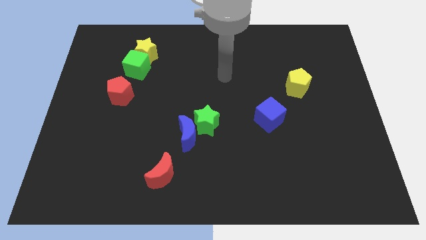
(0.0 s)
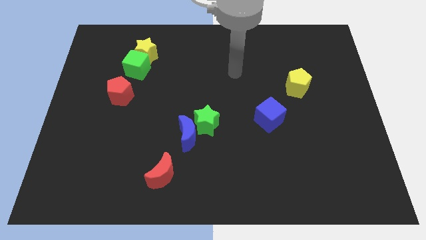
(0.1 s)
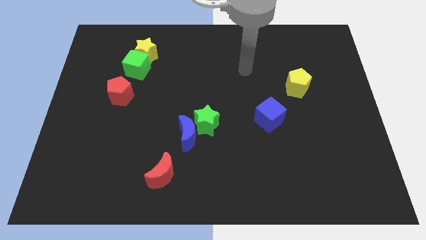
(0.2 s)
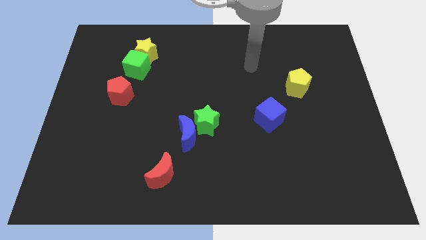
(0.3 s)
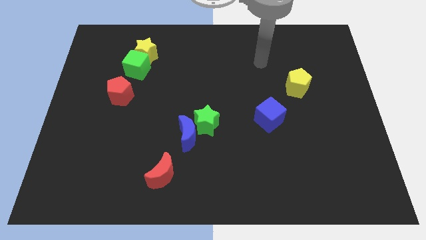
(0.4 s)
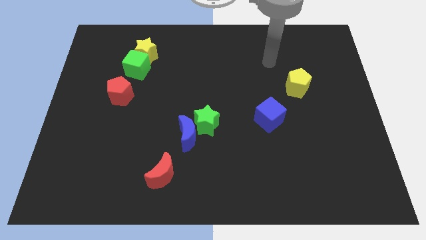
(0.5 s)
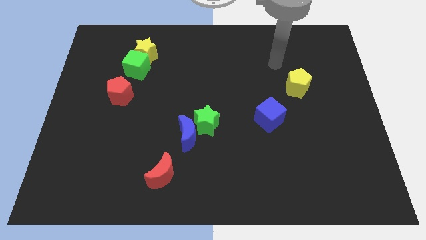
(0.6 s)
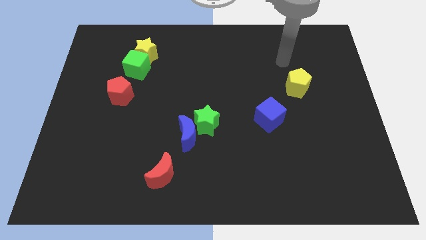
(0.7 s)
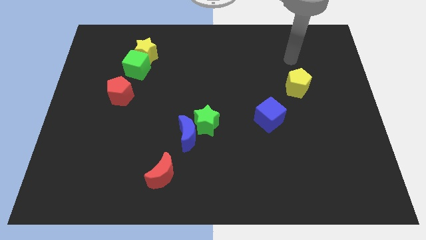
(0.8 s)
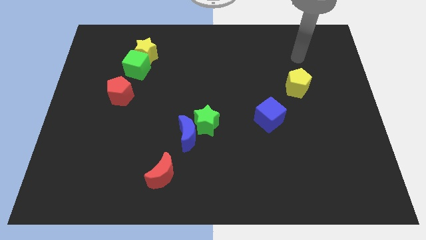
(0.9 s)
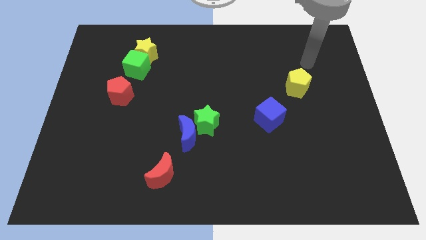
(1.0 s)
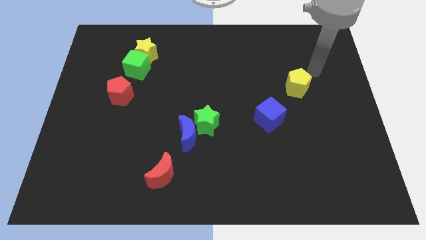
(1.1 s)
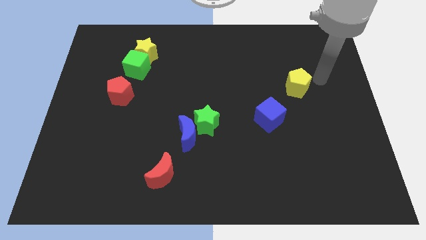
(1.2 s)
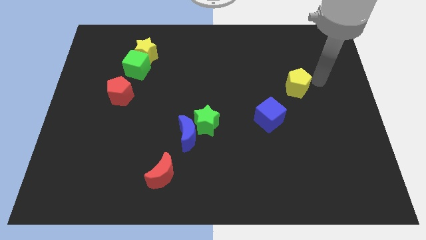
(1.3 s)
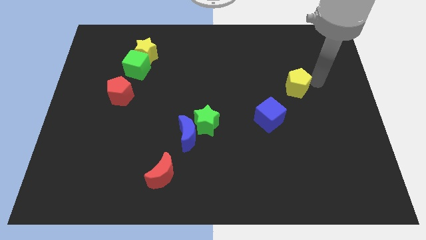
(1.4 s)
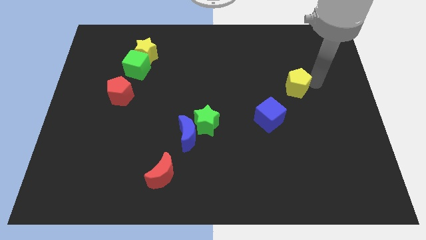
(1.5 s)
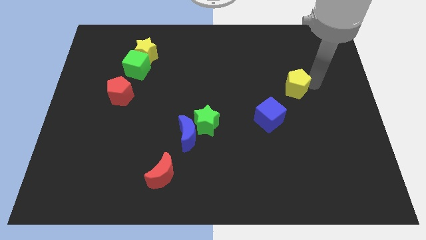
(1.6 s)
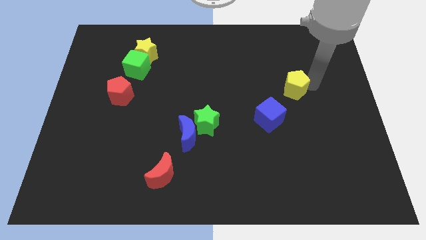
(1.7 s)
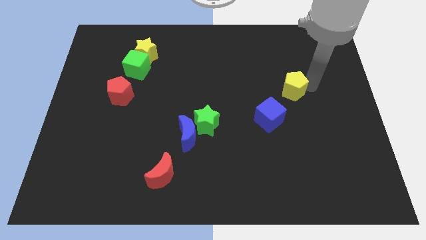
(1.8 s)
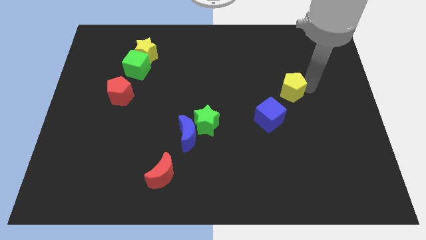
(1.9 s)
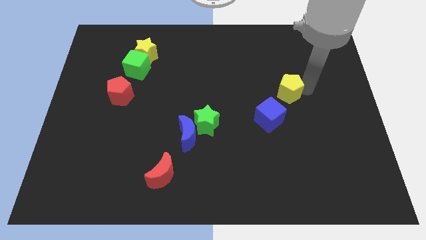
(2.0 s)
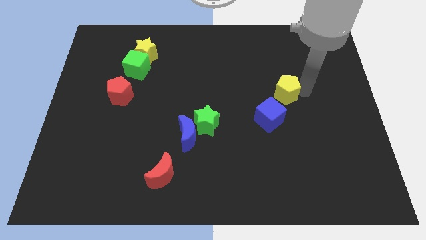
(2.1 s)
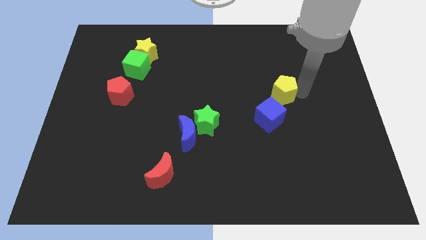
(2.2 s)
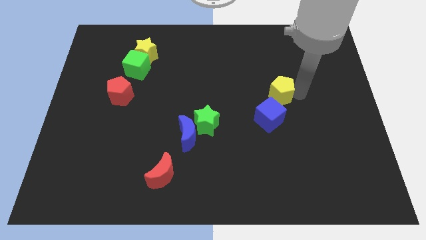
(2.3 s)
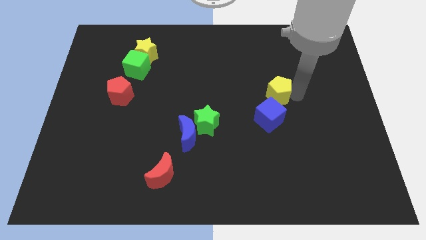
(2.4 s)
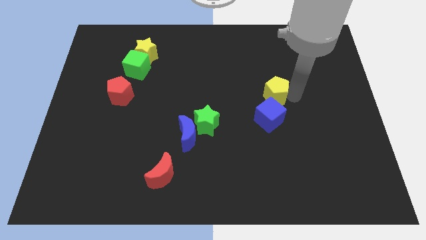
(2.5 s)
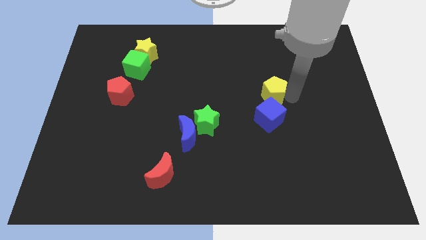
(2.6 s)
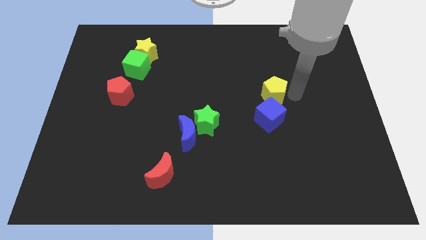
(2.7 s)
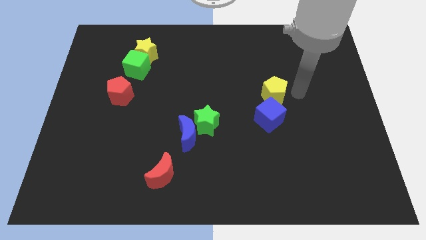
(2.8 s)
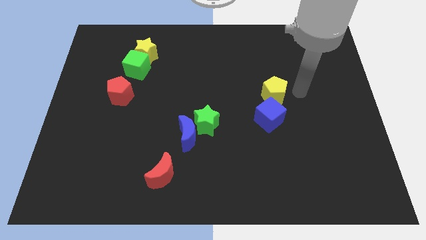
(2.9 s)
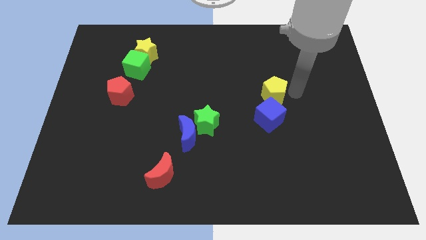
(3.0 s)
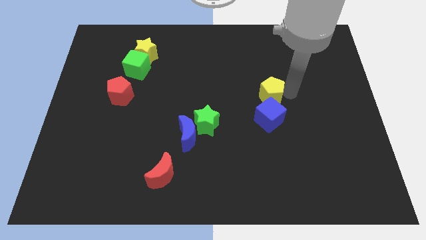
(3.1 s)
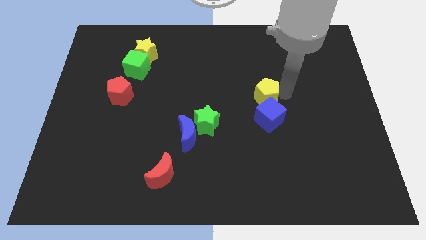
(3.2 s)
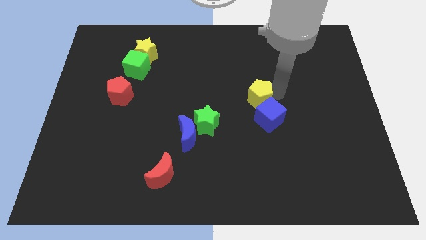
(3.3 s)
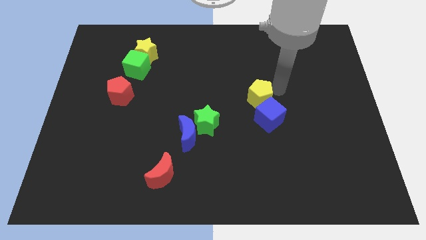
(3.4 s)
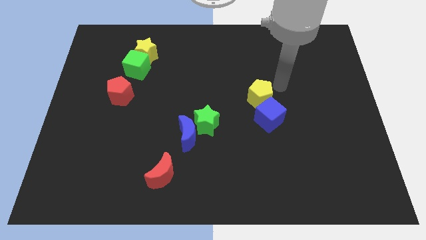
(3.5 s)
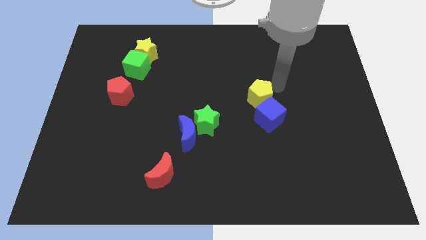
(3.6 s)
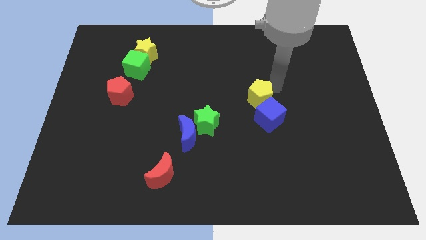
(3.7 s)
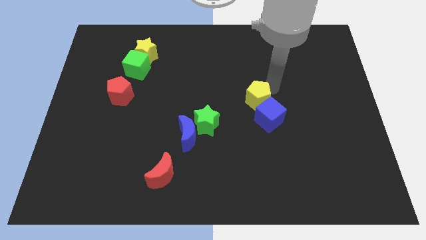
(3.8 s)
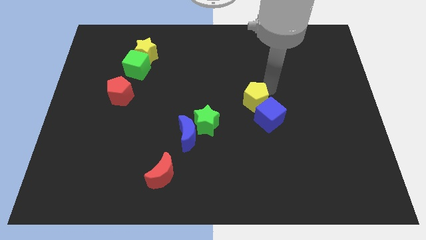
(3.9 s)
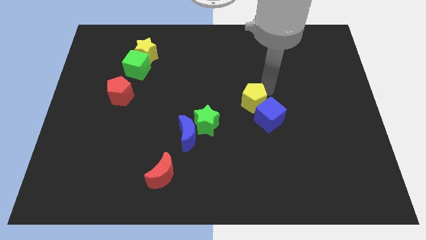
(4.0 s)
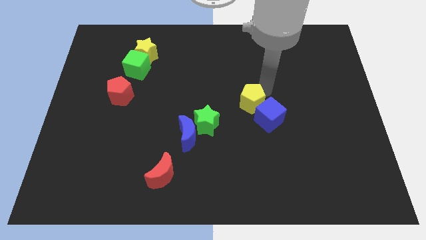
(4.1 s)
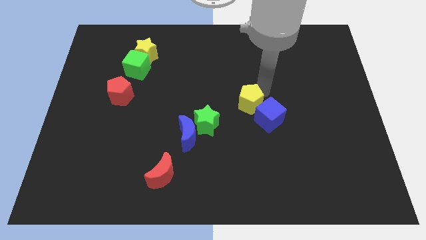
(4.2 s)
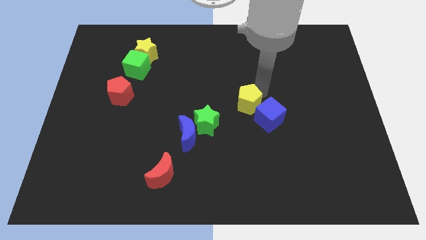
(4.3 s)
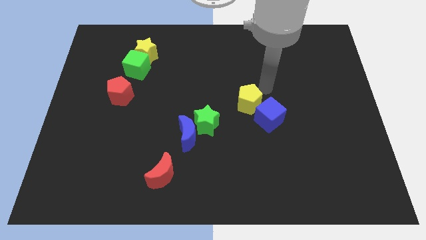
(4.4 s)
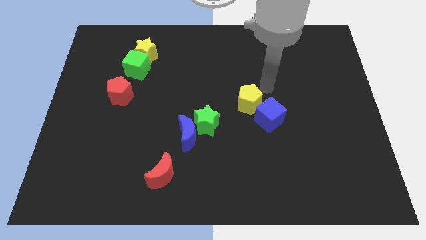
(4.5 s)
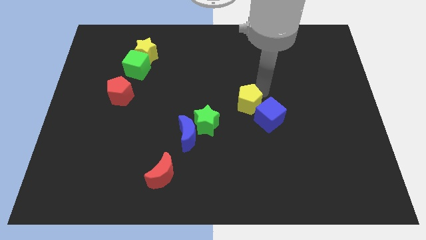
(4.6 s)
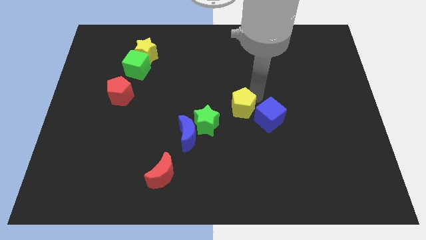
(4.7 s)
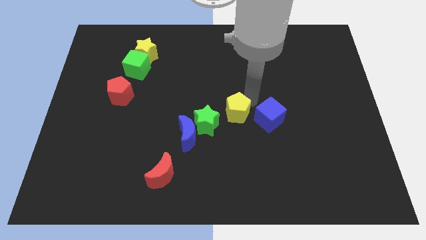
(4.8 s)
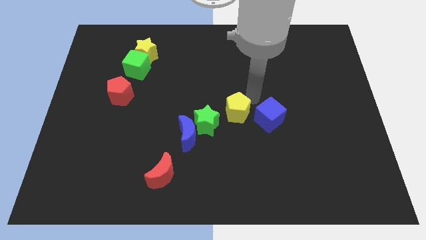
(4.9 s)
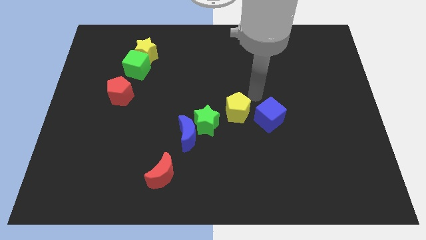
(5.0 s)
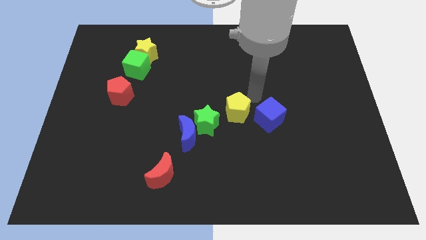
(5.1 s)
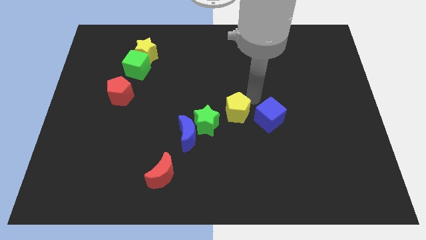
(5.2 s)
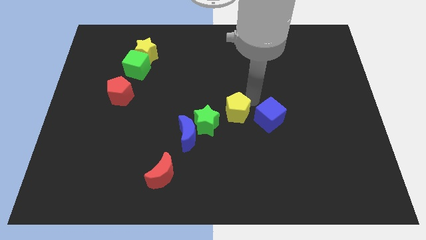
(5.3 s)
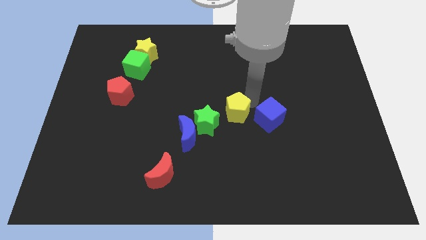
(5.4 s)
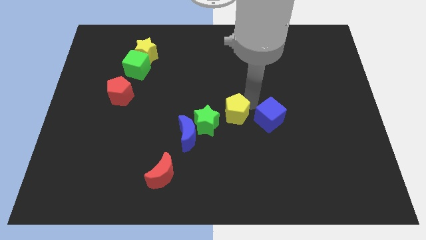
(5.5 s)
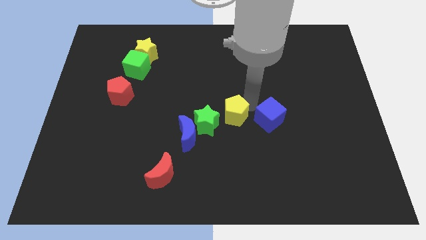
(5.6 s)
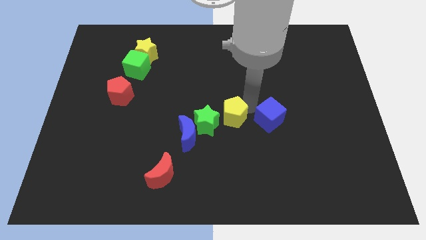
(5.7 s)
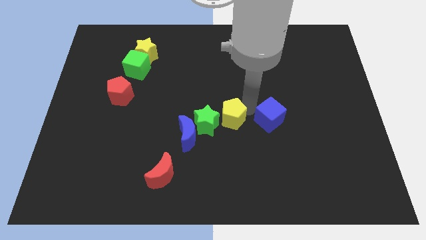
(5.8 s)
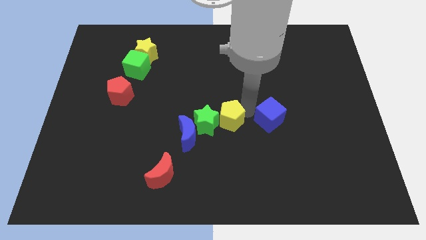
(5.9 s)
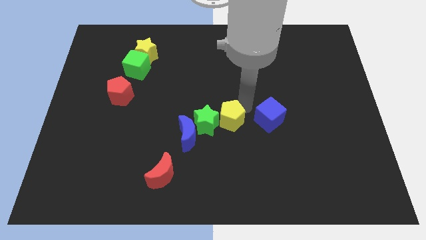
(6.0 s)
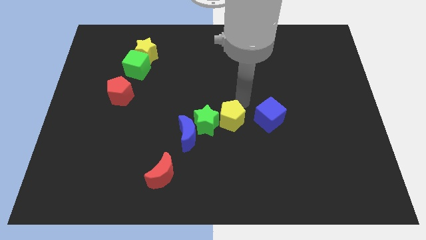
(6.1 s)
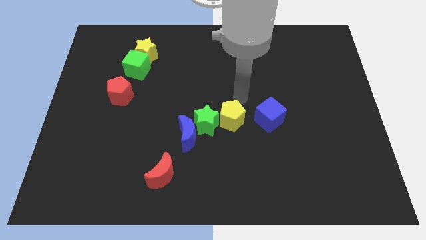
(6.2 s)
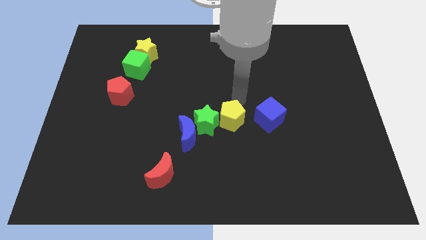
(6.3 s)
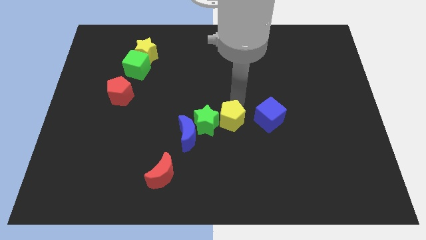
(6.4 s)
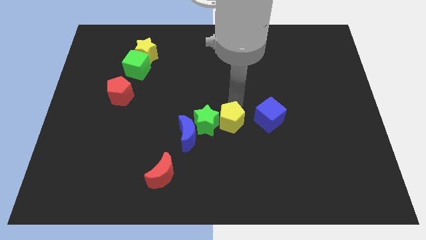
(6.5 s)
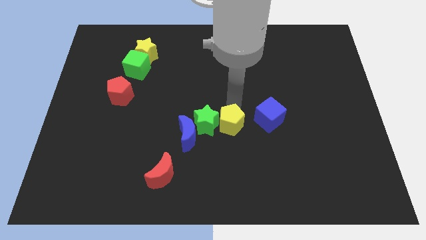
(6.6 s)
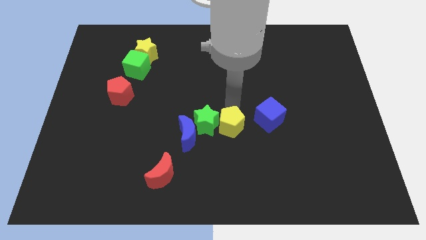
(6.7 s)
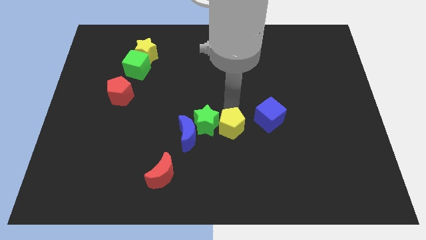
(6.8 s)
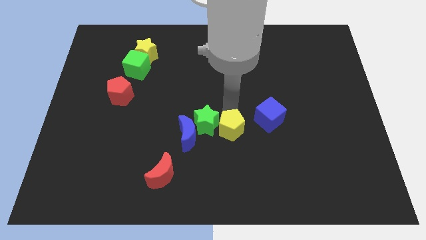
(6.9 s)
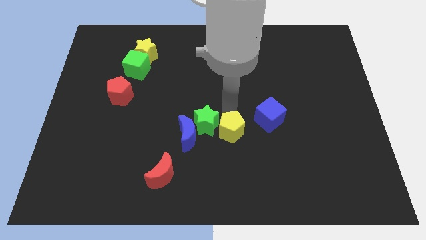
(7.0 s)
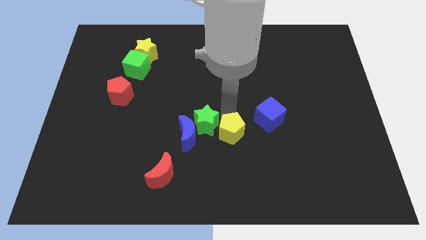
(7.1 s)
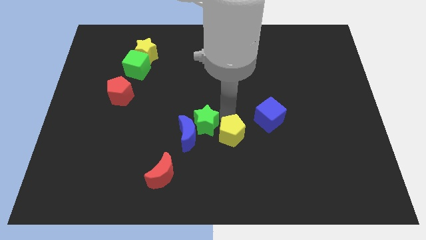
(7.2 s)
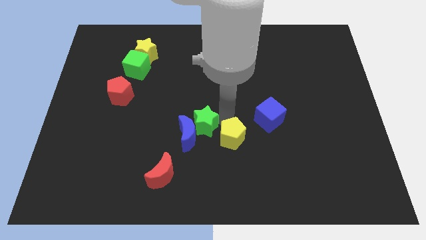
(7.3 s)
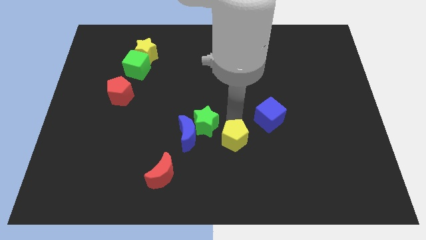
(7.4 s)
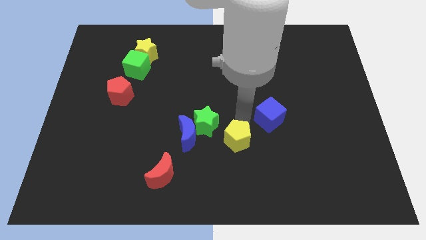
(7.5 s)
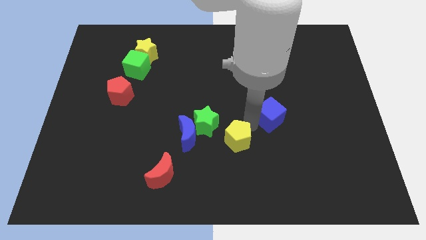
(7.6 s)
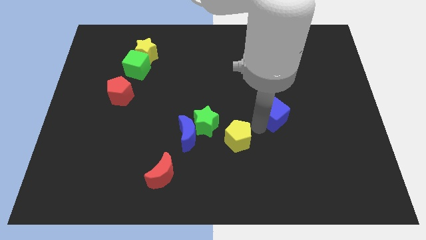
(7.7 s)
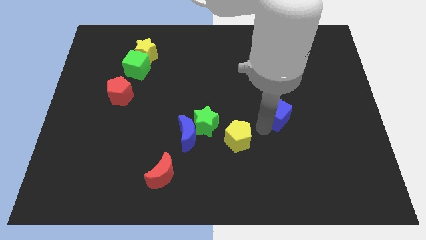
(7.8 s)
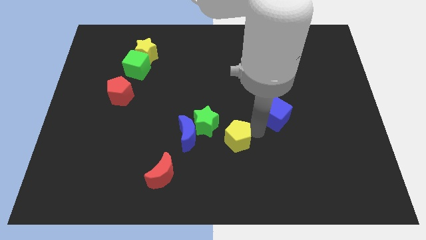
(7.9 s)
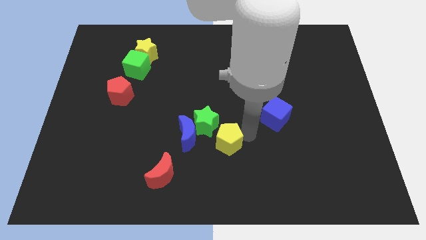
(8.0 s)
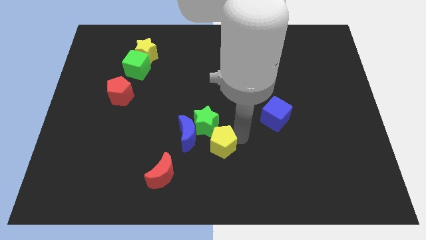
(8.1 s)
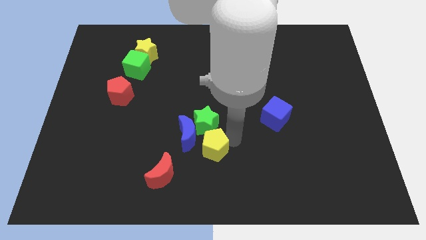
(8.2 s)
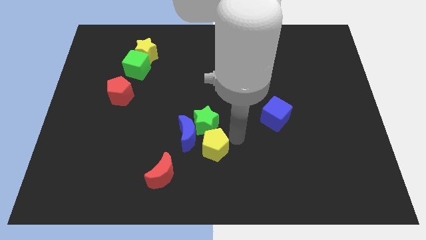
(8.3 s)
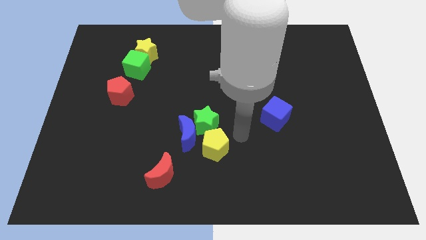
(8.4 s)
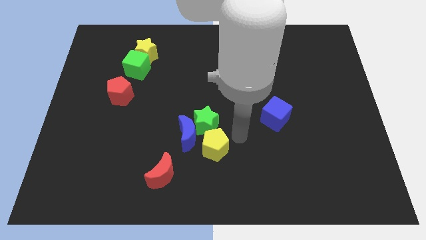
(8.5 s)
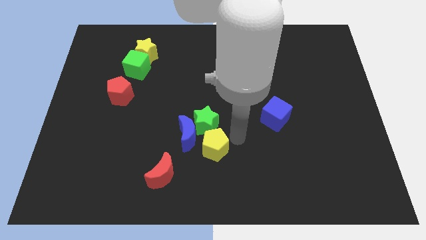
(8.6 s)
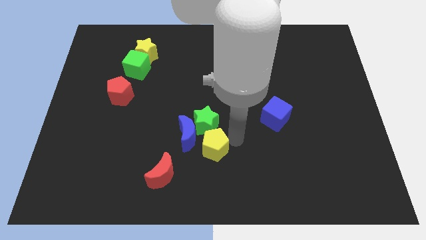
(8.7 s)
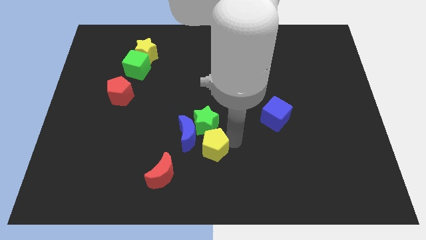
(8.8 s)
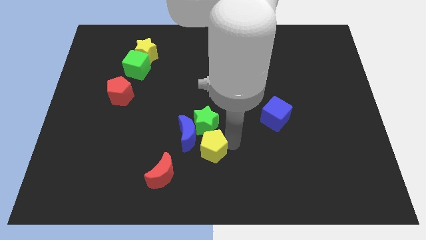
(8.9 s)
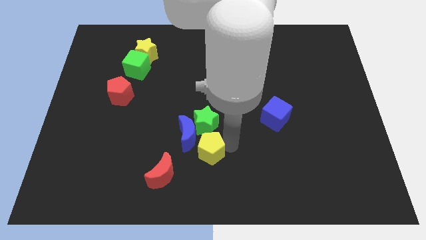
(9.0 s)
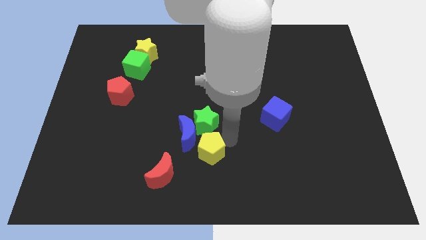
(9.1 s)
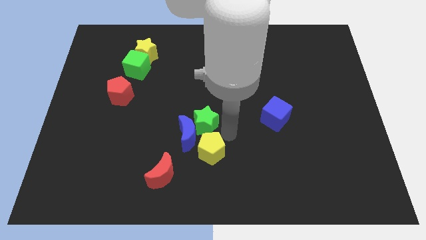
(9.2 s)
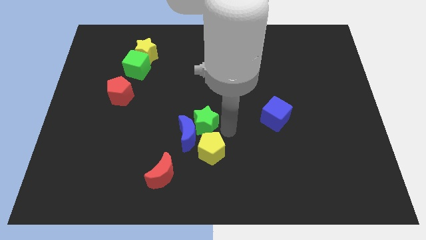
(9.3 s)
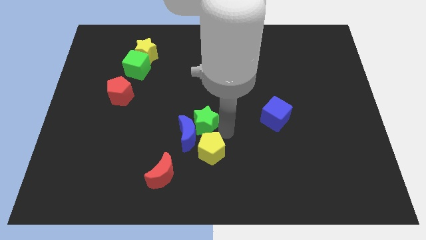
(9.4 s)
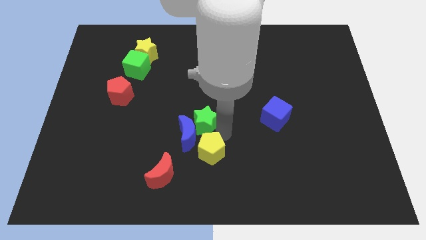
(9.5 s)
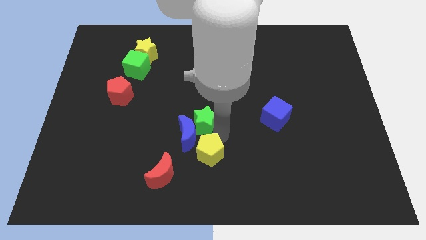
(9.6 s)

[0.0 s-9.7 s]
move the yellow pentagon below the blue moon
